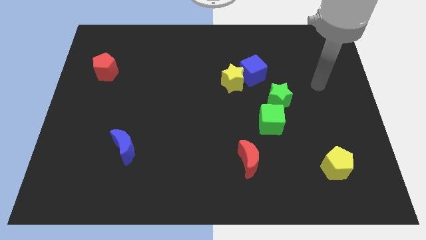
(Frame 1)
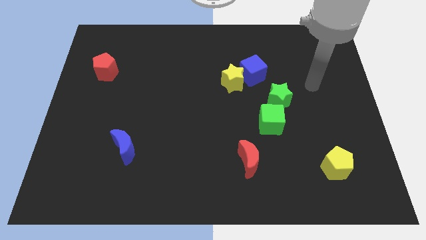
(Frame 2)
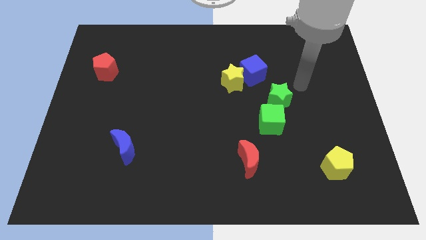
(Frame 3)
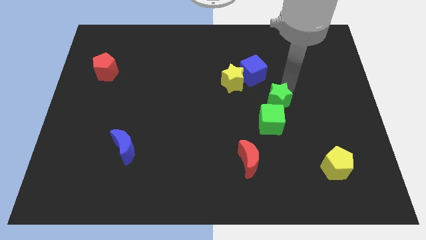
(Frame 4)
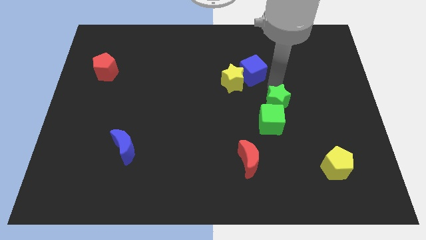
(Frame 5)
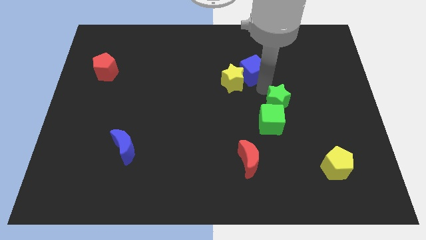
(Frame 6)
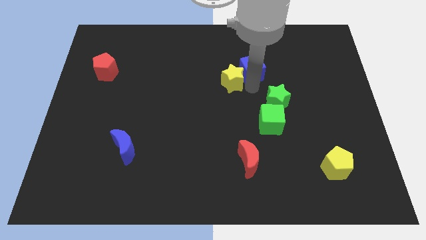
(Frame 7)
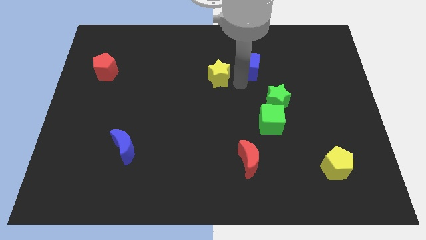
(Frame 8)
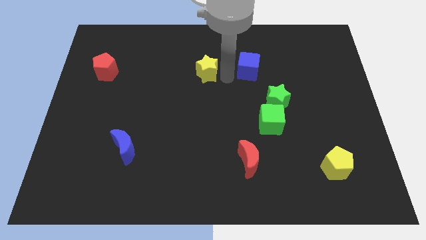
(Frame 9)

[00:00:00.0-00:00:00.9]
move the blue cube away from the yellow star

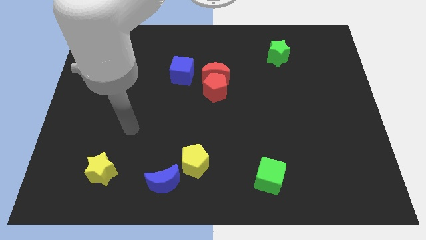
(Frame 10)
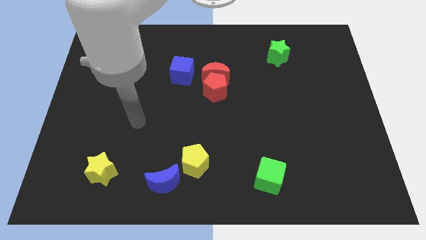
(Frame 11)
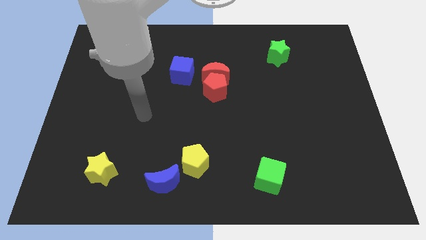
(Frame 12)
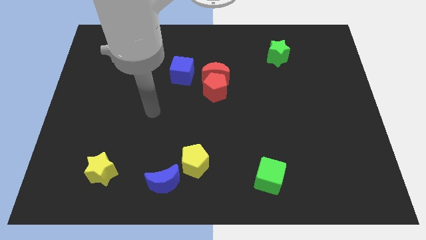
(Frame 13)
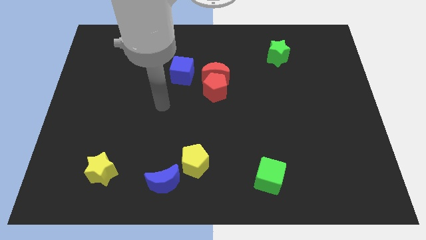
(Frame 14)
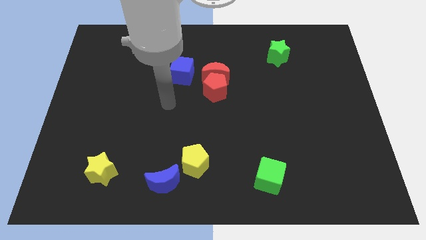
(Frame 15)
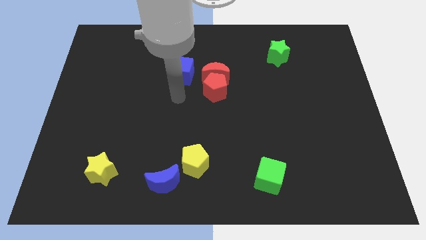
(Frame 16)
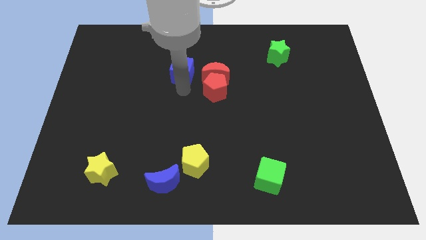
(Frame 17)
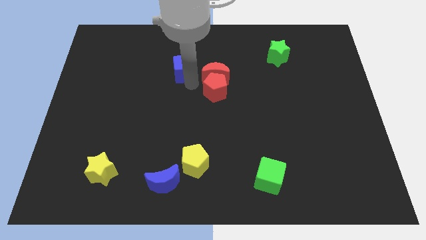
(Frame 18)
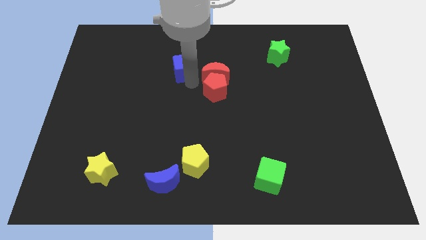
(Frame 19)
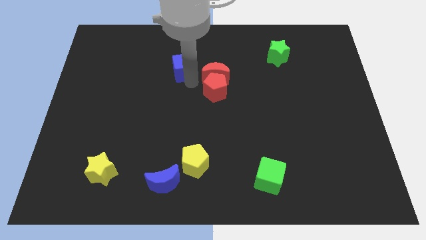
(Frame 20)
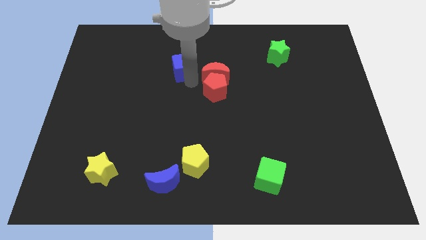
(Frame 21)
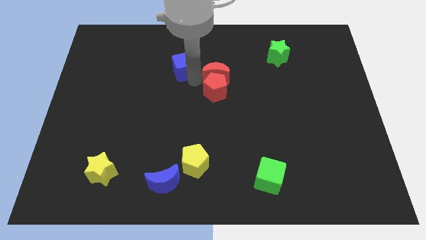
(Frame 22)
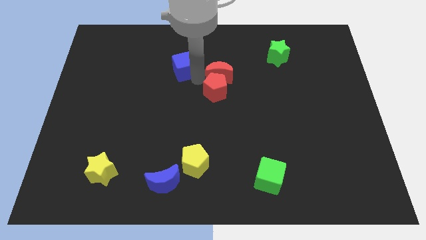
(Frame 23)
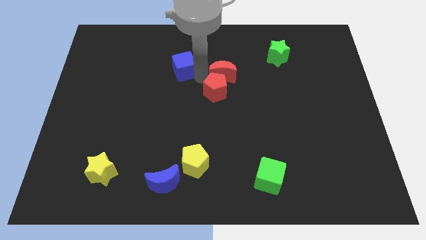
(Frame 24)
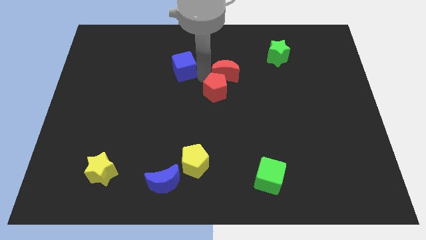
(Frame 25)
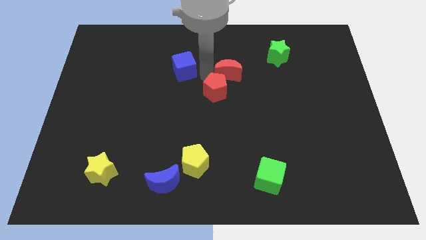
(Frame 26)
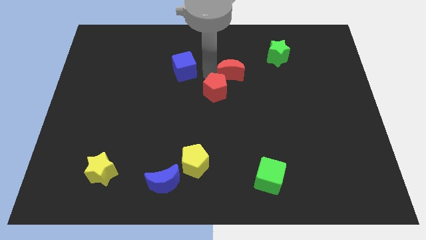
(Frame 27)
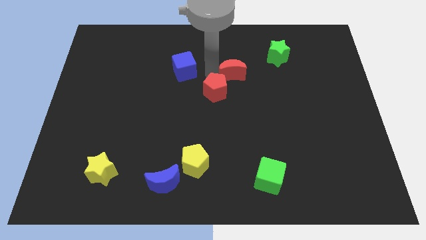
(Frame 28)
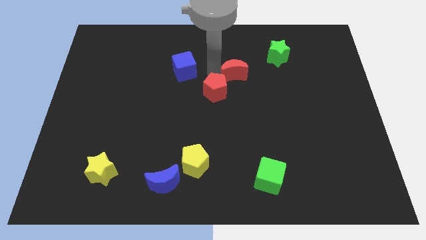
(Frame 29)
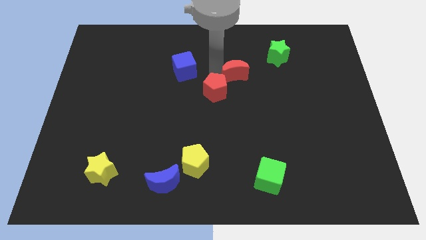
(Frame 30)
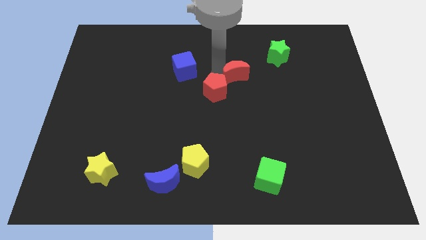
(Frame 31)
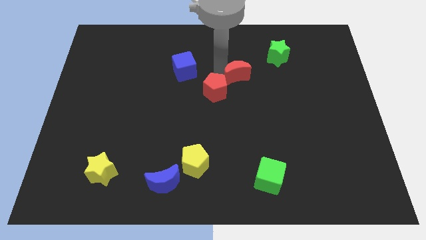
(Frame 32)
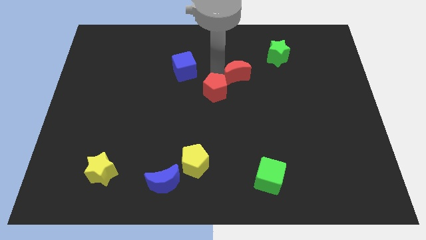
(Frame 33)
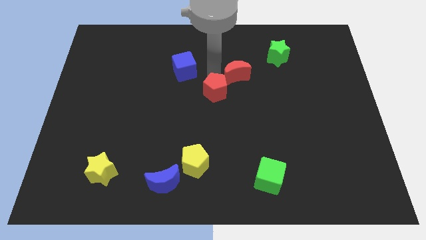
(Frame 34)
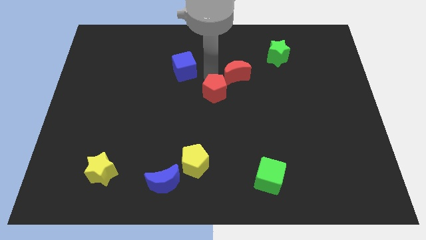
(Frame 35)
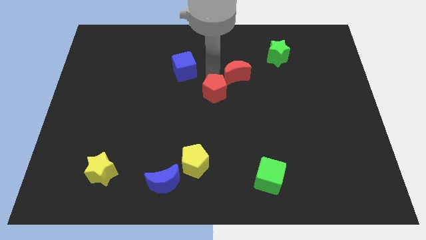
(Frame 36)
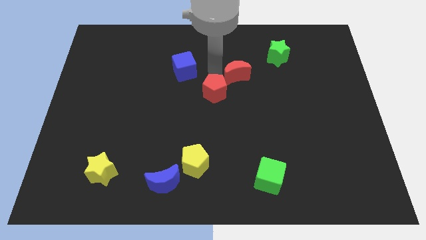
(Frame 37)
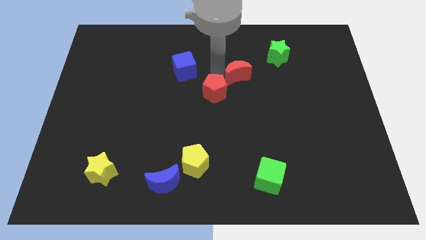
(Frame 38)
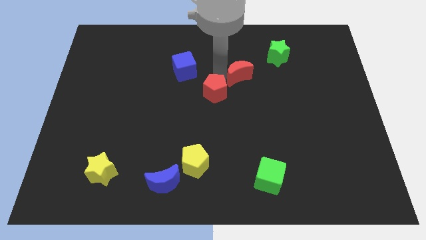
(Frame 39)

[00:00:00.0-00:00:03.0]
move the red moon away from the red pentagon and blue cube

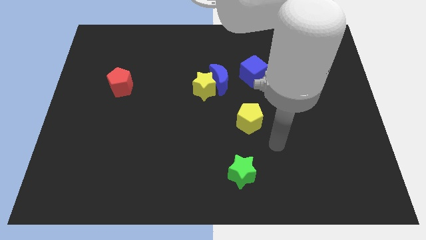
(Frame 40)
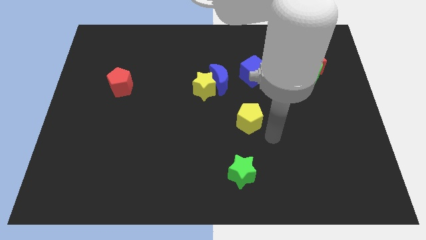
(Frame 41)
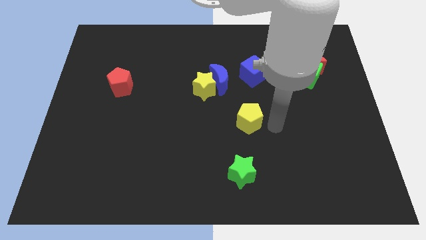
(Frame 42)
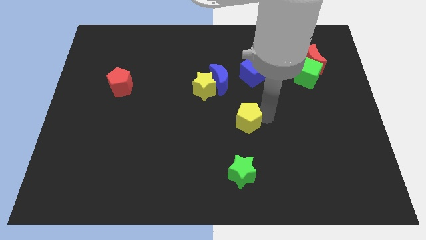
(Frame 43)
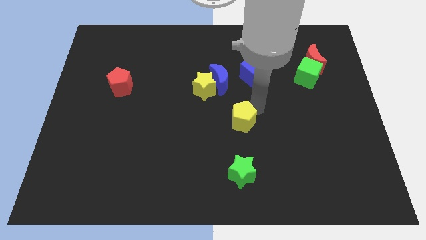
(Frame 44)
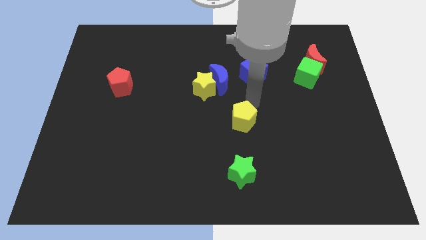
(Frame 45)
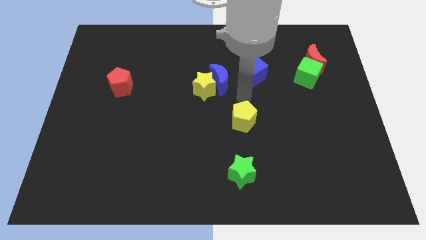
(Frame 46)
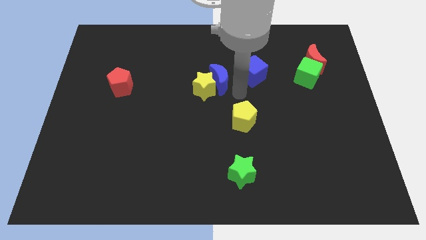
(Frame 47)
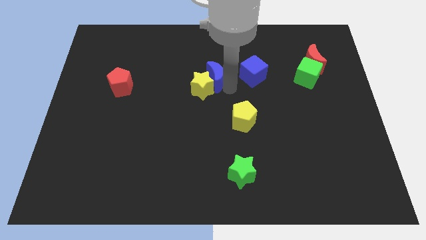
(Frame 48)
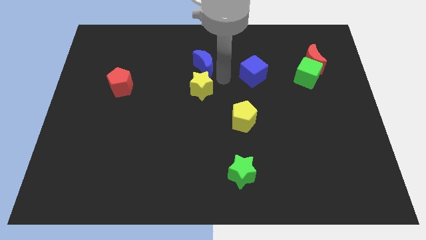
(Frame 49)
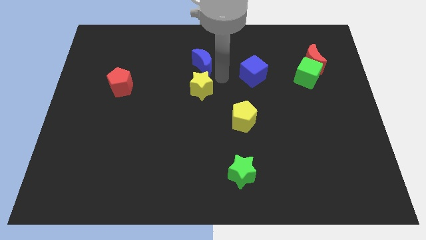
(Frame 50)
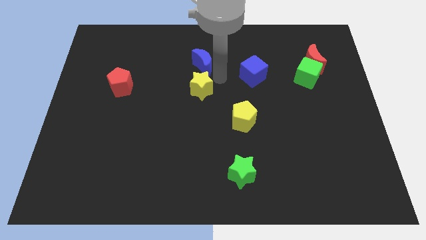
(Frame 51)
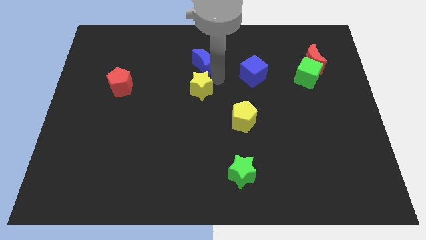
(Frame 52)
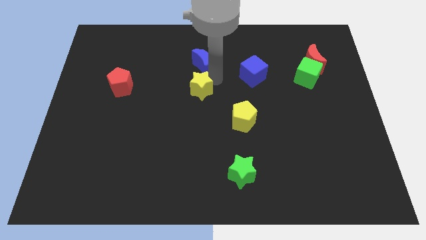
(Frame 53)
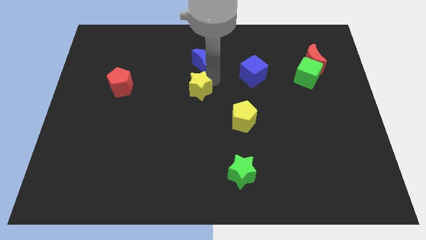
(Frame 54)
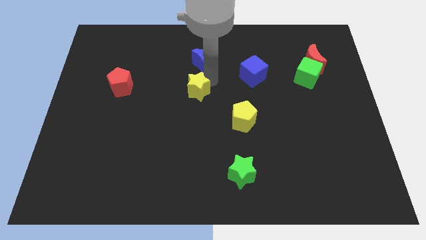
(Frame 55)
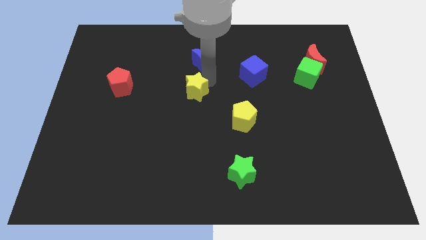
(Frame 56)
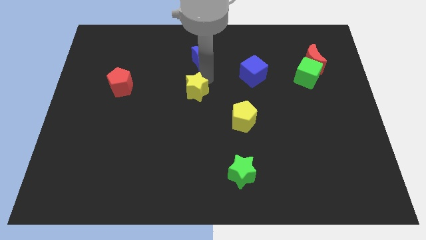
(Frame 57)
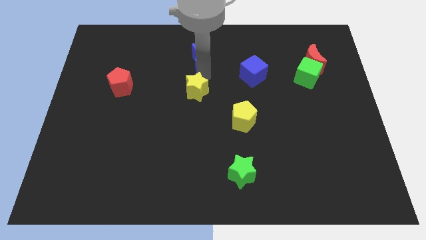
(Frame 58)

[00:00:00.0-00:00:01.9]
separate the yellow star from the blue moon

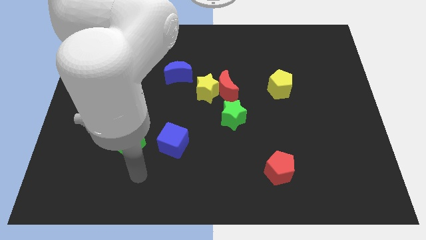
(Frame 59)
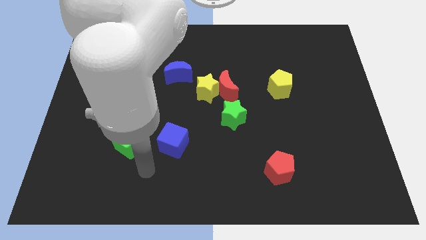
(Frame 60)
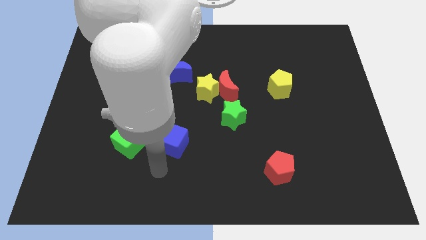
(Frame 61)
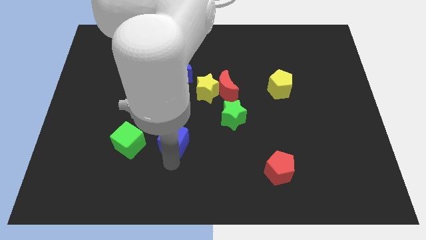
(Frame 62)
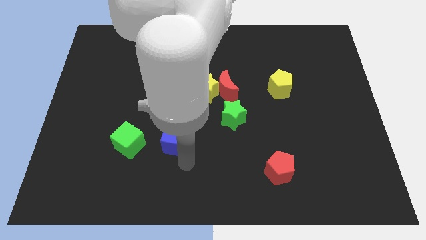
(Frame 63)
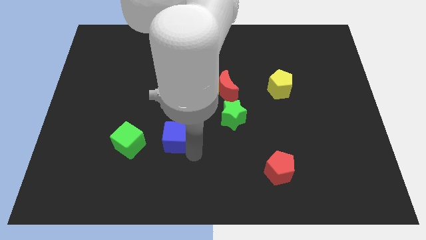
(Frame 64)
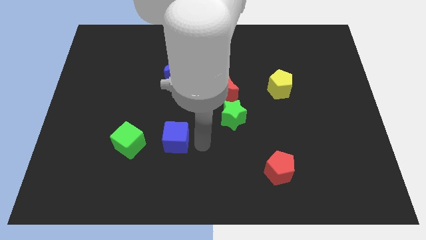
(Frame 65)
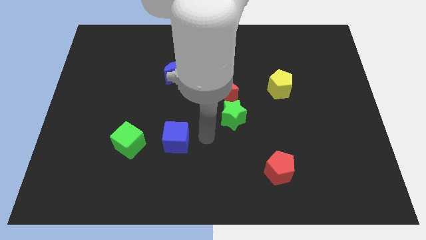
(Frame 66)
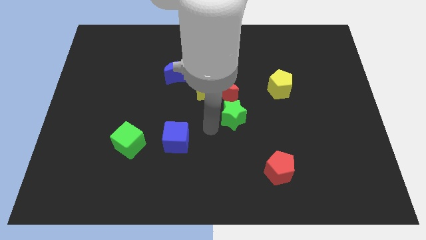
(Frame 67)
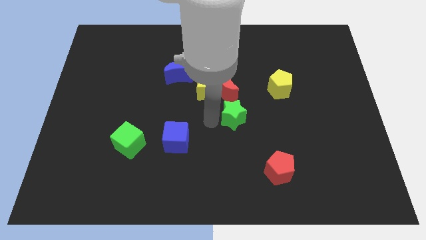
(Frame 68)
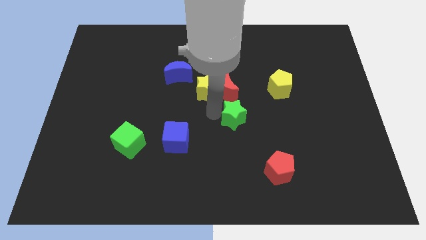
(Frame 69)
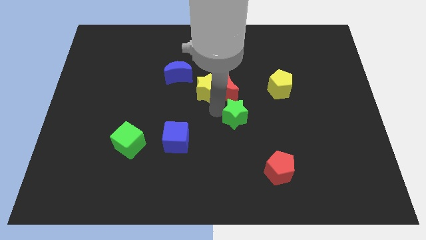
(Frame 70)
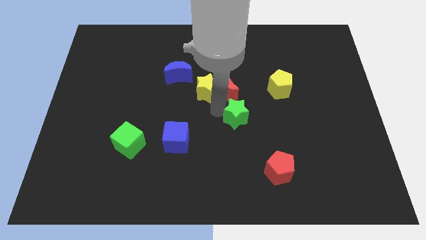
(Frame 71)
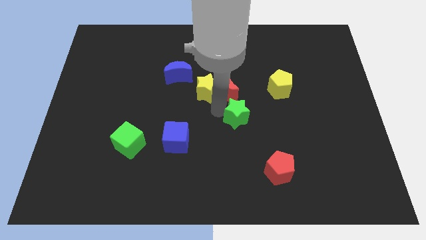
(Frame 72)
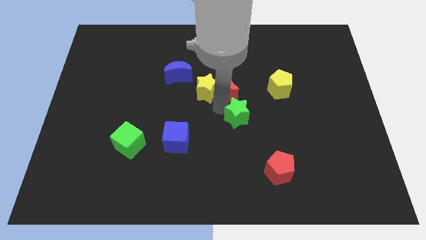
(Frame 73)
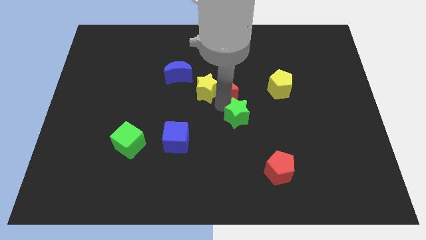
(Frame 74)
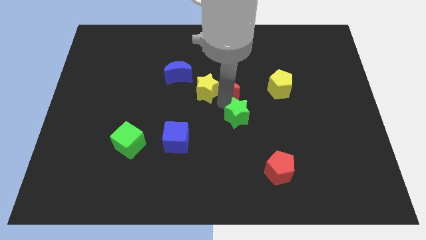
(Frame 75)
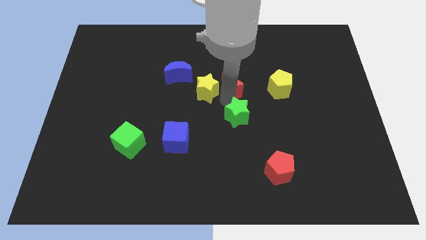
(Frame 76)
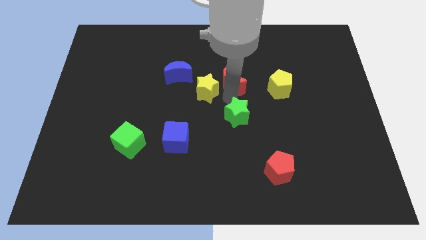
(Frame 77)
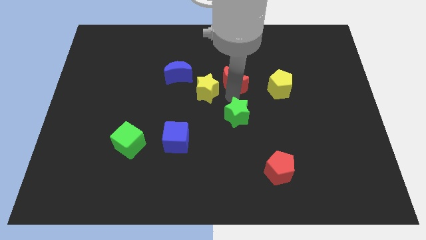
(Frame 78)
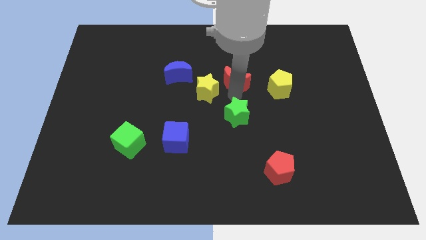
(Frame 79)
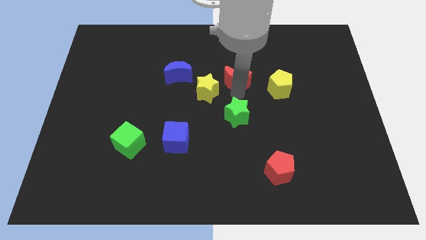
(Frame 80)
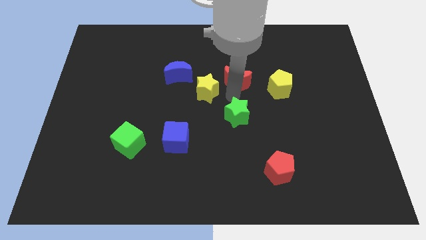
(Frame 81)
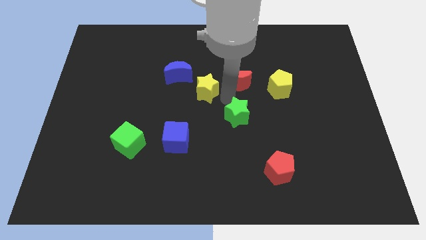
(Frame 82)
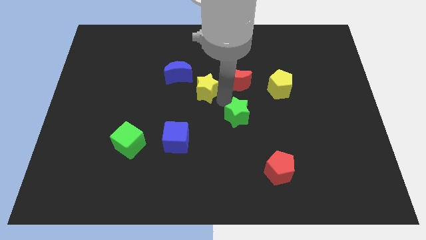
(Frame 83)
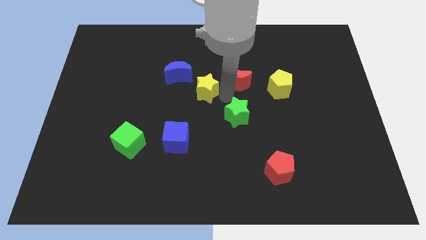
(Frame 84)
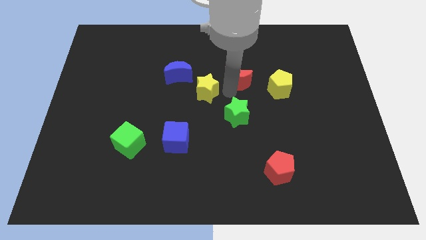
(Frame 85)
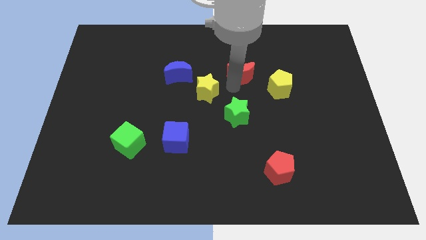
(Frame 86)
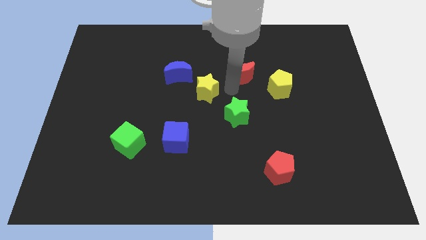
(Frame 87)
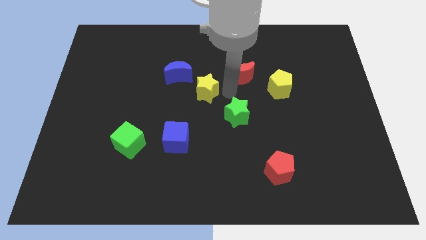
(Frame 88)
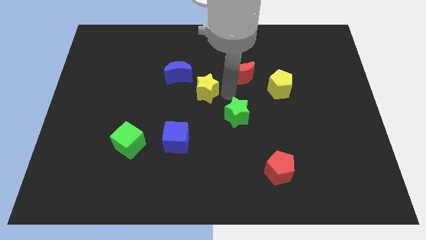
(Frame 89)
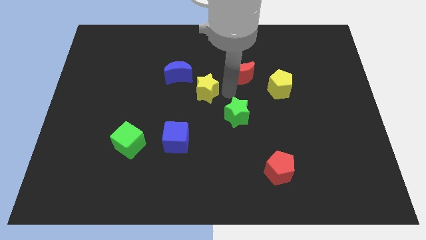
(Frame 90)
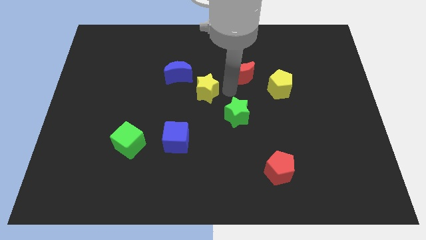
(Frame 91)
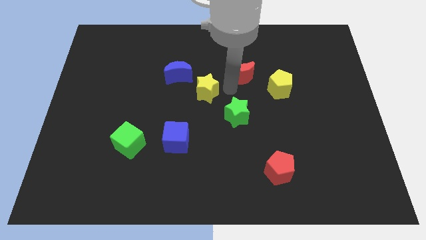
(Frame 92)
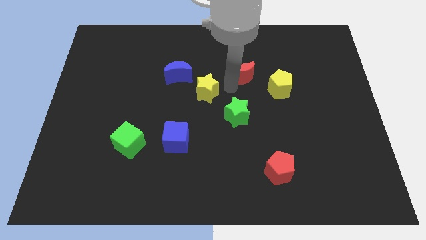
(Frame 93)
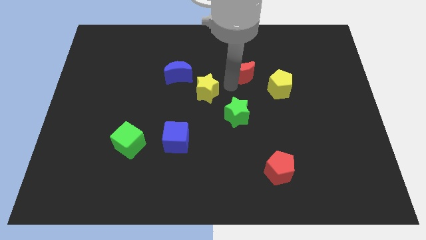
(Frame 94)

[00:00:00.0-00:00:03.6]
pull the red moon apart from the yellow star and green star
